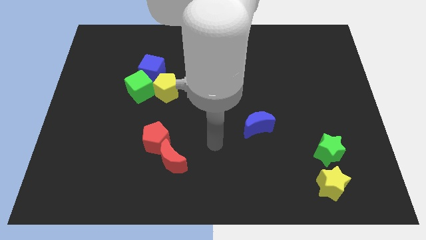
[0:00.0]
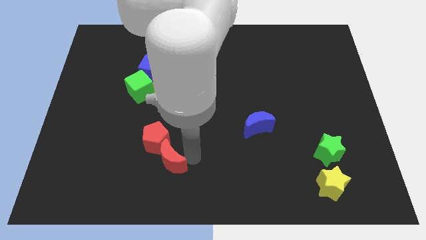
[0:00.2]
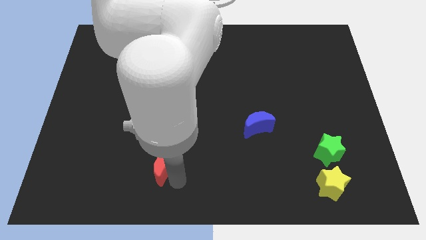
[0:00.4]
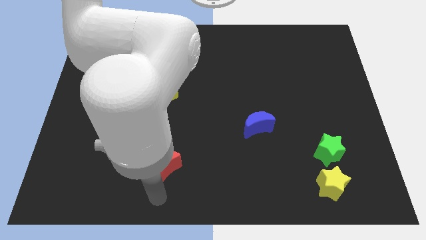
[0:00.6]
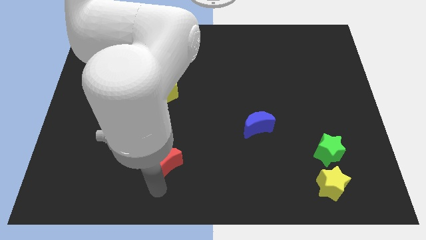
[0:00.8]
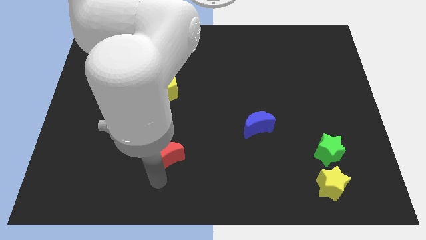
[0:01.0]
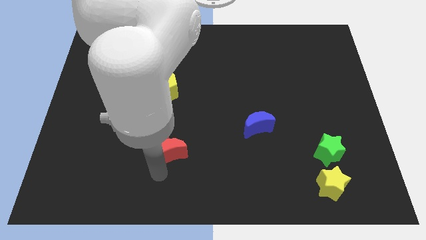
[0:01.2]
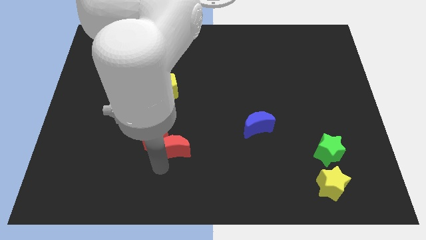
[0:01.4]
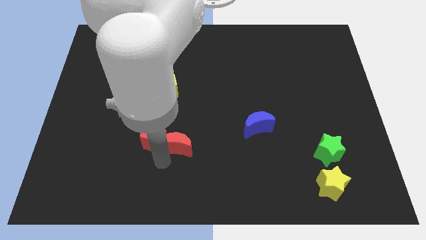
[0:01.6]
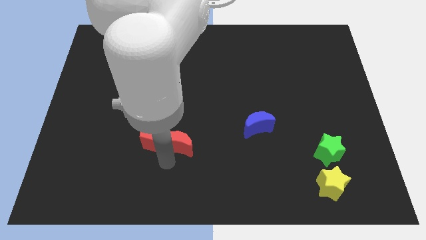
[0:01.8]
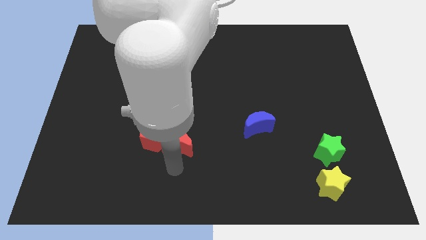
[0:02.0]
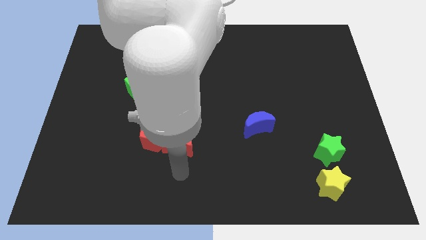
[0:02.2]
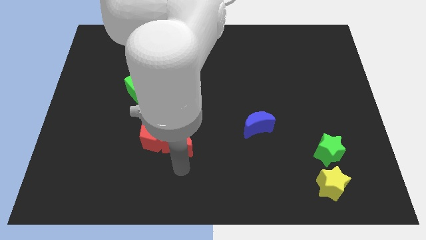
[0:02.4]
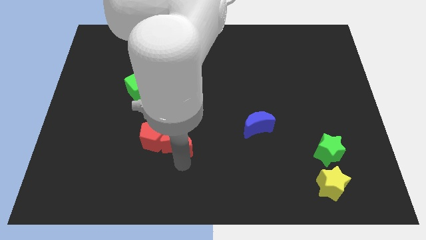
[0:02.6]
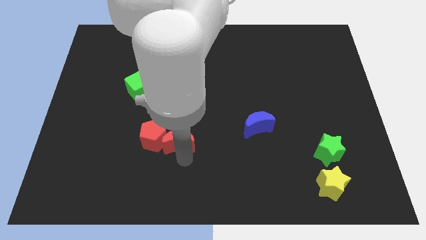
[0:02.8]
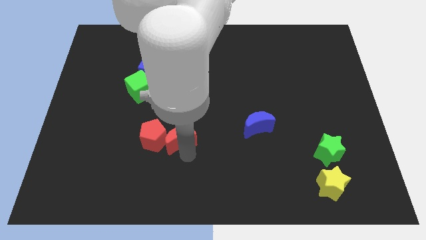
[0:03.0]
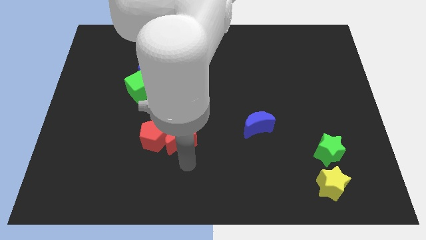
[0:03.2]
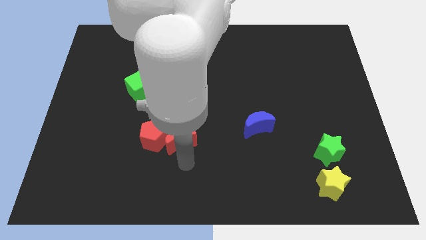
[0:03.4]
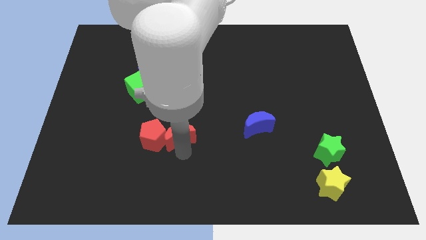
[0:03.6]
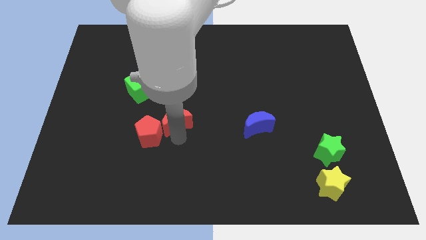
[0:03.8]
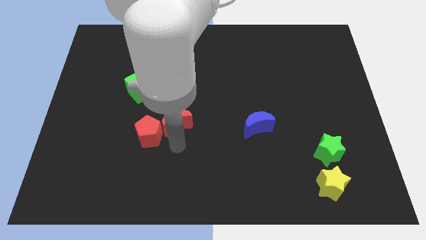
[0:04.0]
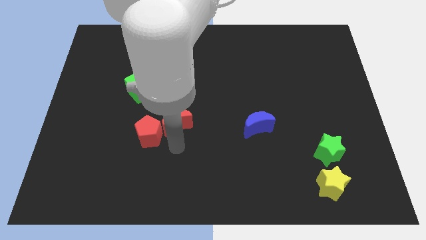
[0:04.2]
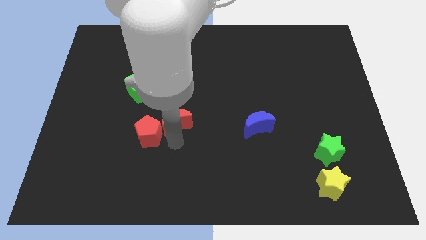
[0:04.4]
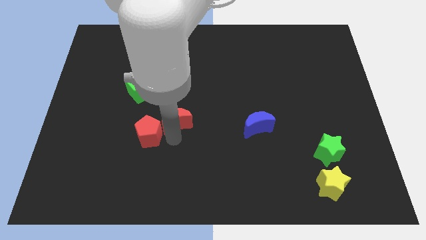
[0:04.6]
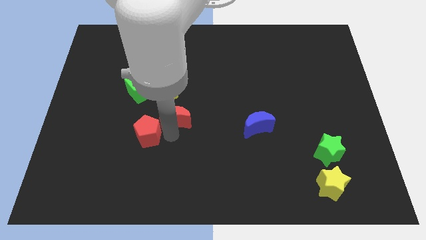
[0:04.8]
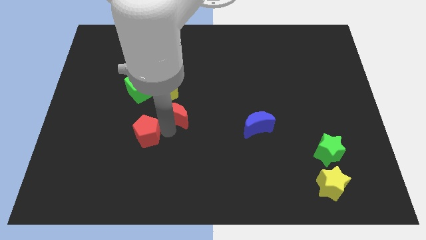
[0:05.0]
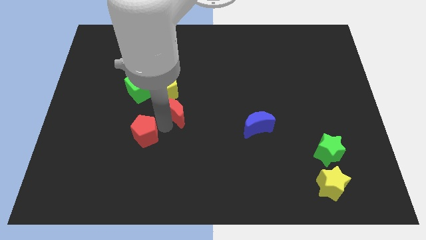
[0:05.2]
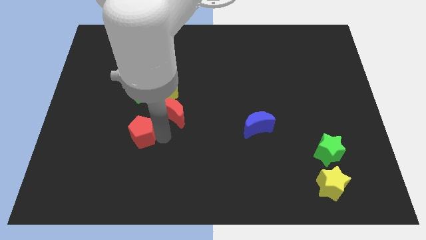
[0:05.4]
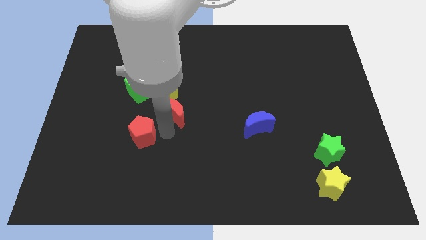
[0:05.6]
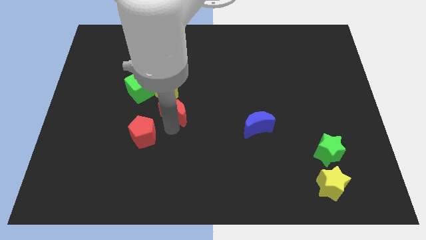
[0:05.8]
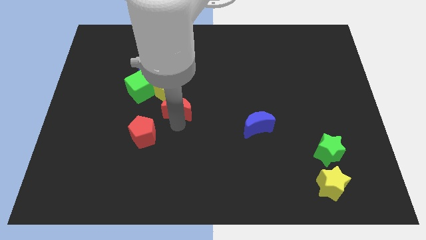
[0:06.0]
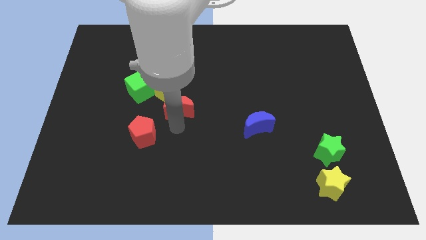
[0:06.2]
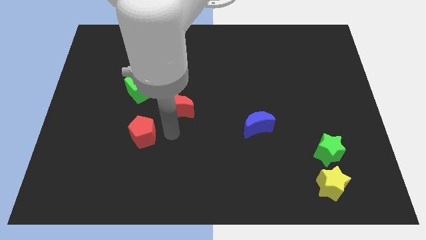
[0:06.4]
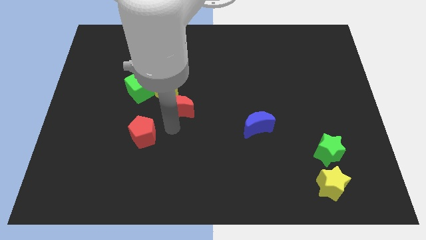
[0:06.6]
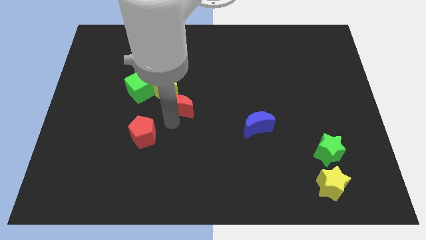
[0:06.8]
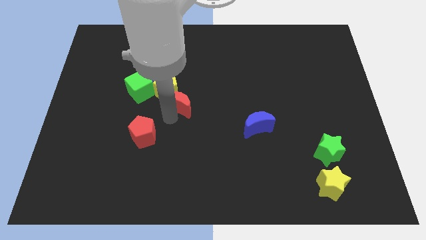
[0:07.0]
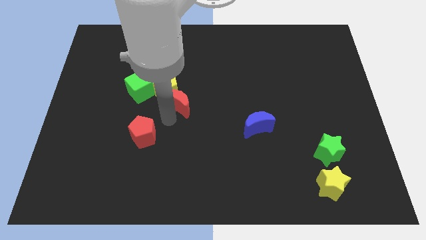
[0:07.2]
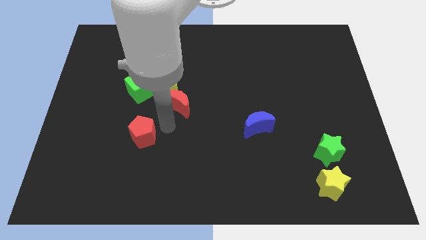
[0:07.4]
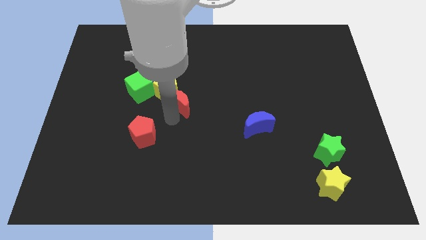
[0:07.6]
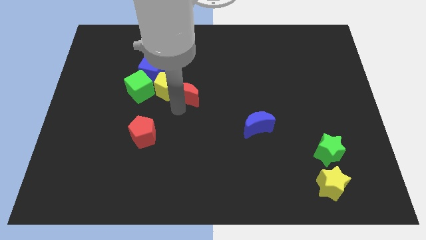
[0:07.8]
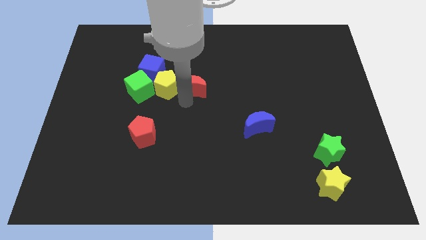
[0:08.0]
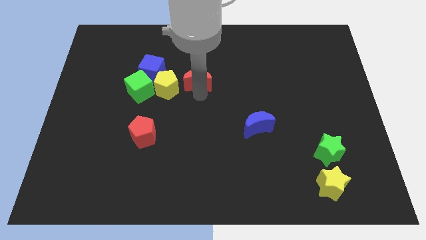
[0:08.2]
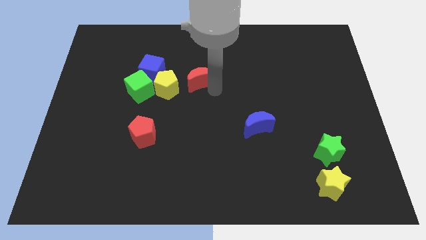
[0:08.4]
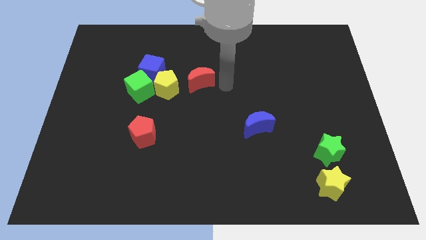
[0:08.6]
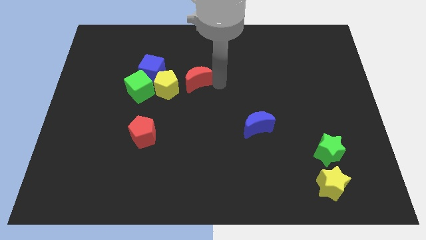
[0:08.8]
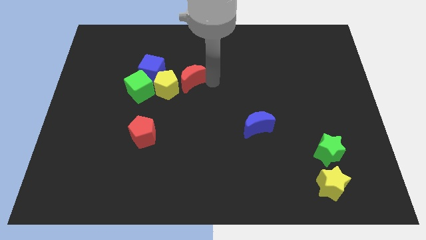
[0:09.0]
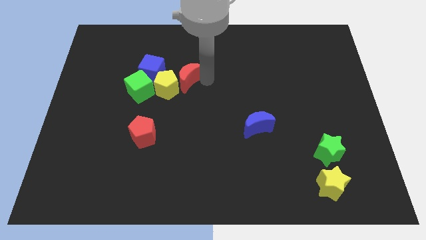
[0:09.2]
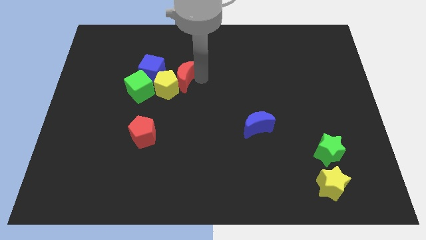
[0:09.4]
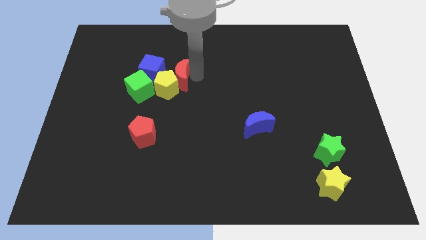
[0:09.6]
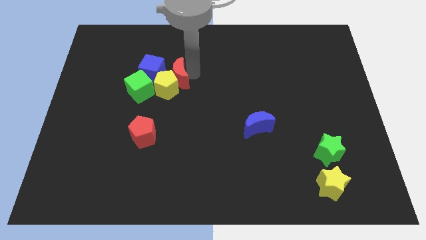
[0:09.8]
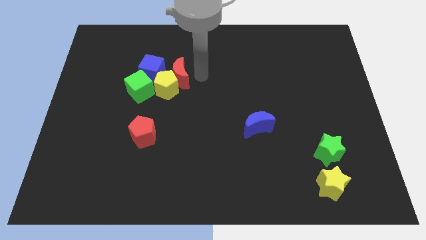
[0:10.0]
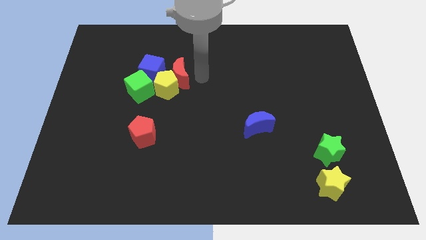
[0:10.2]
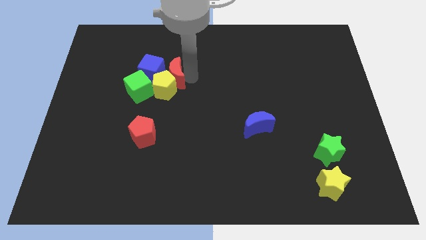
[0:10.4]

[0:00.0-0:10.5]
move the red moon close to the blue cube
